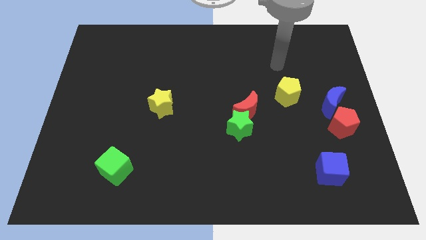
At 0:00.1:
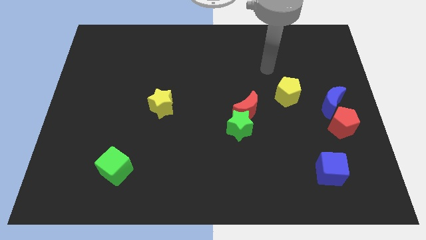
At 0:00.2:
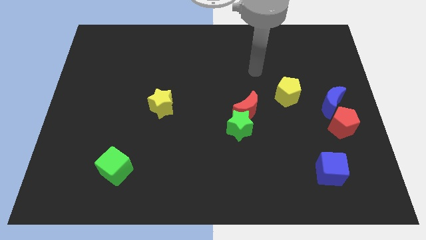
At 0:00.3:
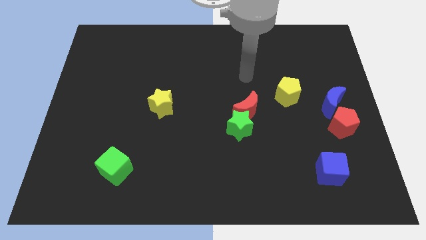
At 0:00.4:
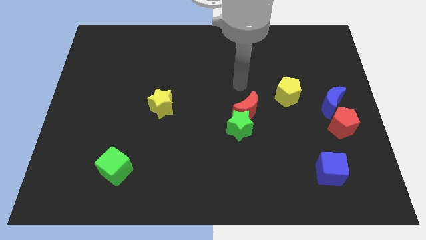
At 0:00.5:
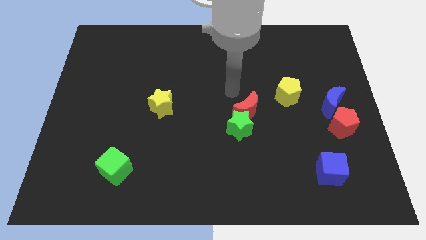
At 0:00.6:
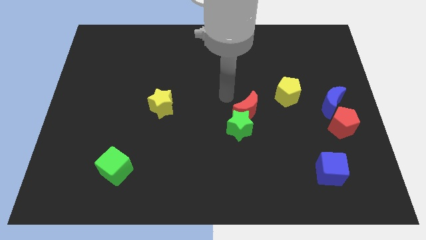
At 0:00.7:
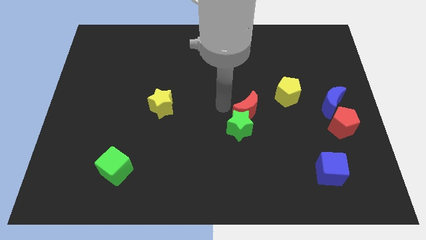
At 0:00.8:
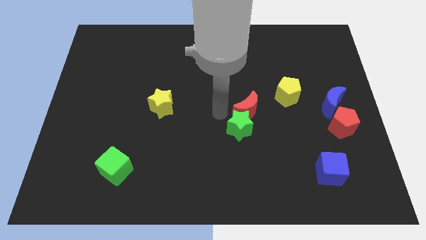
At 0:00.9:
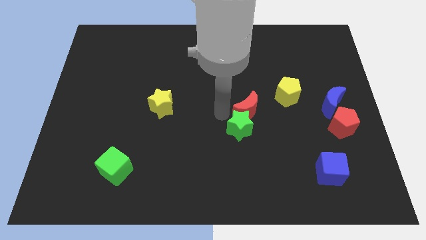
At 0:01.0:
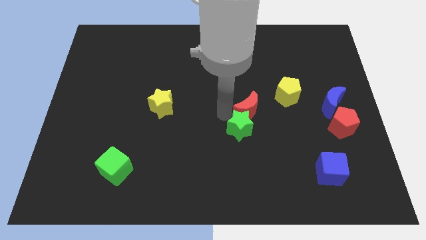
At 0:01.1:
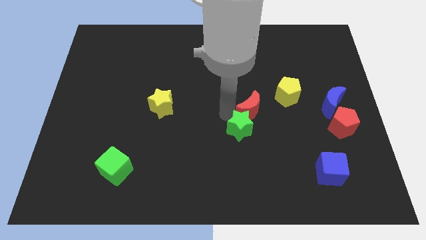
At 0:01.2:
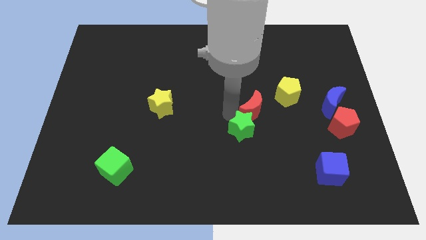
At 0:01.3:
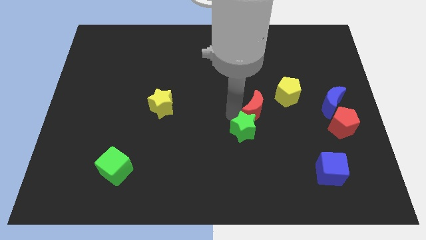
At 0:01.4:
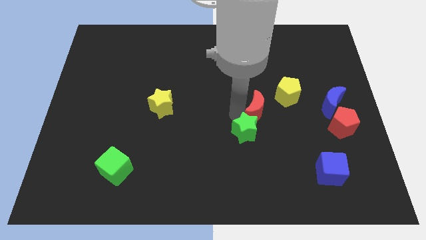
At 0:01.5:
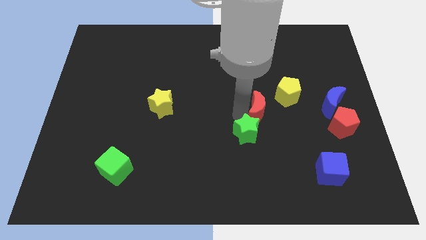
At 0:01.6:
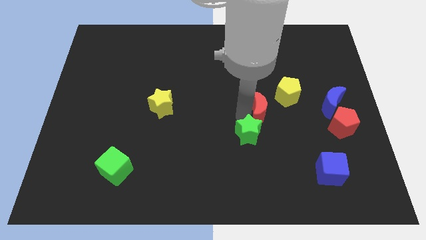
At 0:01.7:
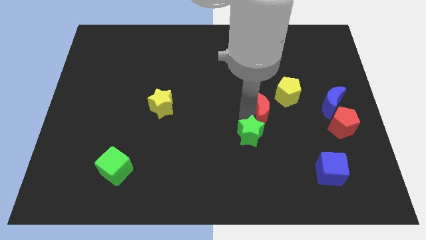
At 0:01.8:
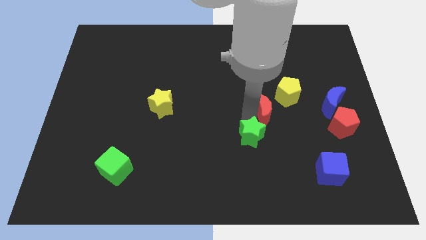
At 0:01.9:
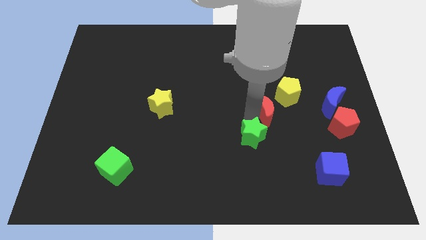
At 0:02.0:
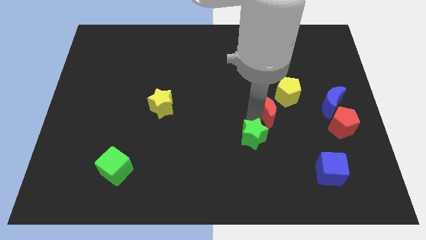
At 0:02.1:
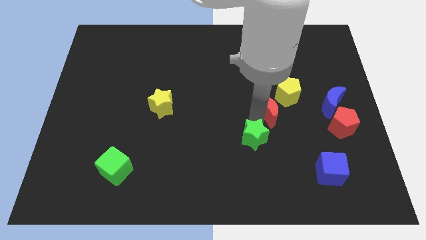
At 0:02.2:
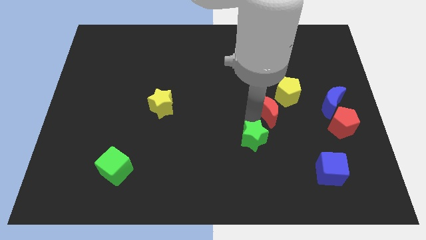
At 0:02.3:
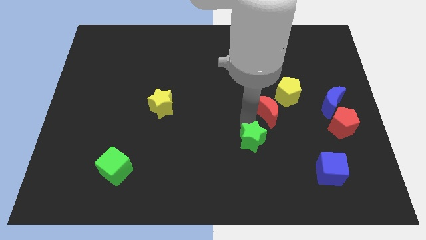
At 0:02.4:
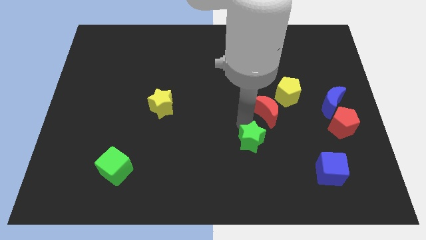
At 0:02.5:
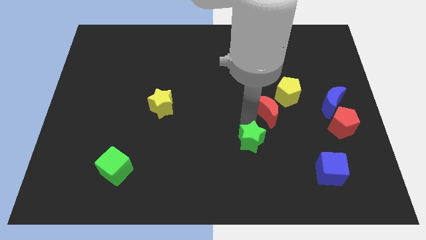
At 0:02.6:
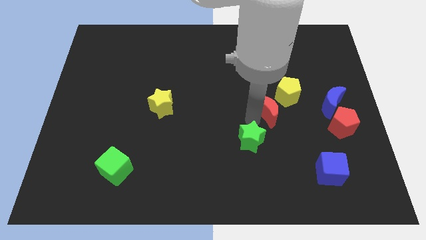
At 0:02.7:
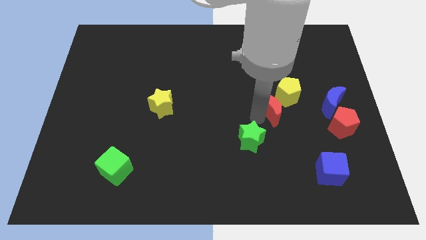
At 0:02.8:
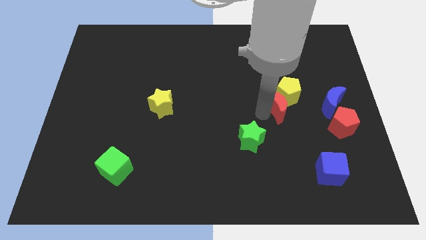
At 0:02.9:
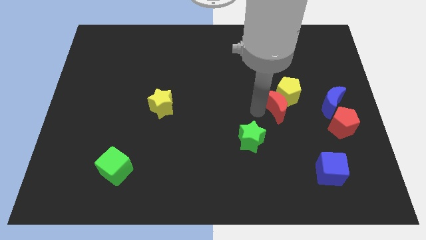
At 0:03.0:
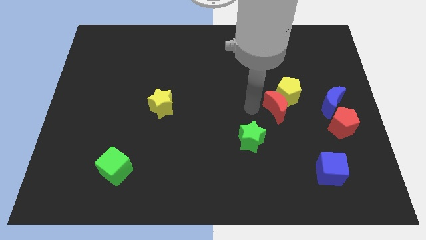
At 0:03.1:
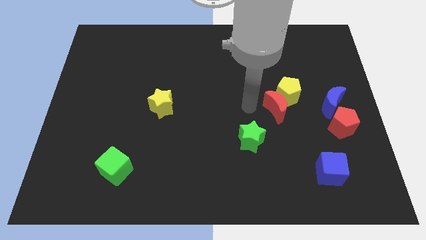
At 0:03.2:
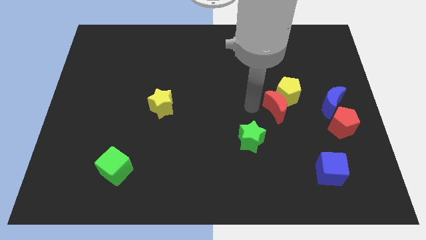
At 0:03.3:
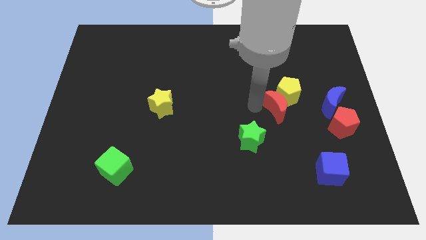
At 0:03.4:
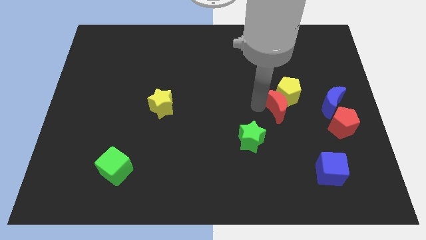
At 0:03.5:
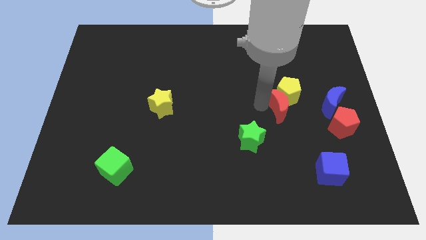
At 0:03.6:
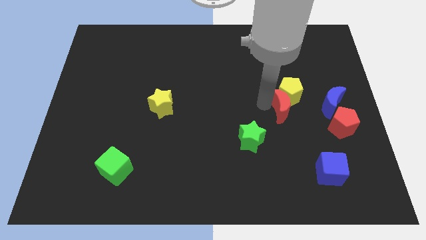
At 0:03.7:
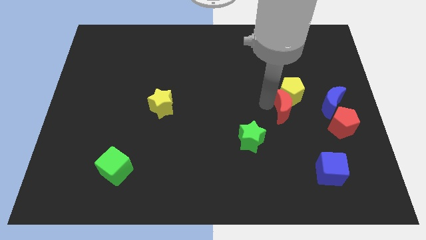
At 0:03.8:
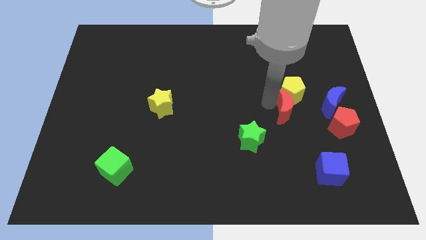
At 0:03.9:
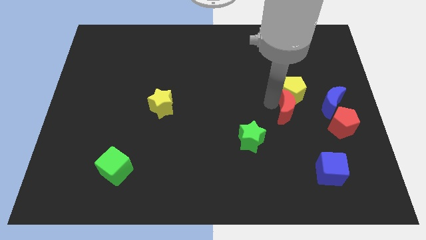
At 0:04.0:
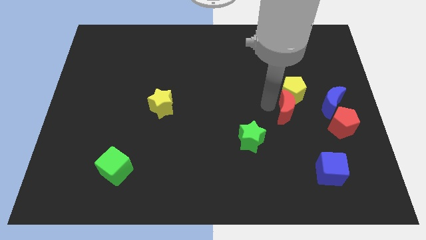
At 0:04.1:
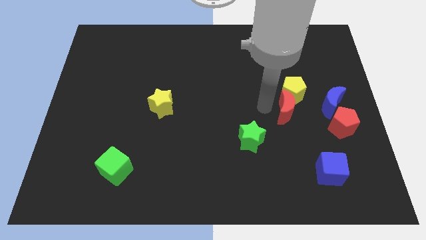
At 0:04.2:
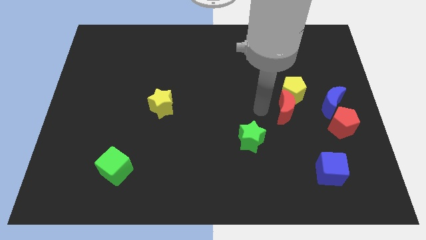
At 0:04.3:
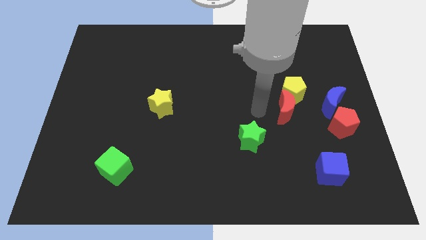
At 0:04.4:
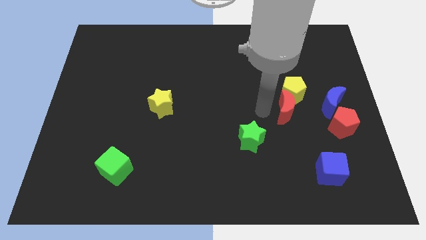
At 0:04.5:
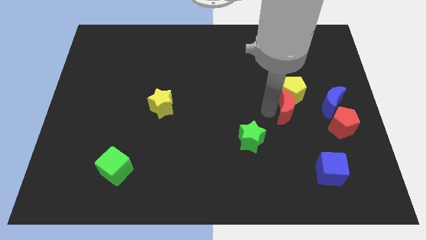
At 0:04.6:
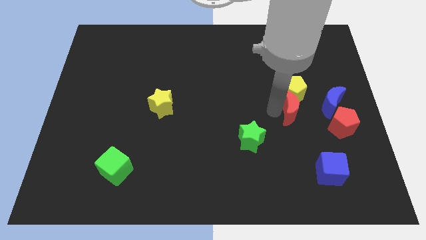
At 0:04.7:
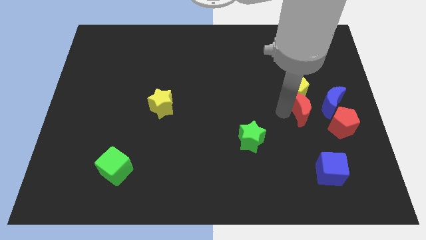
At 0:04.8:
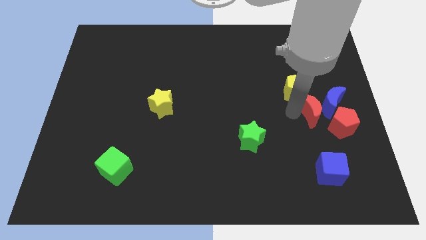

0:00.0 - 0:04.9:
put the red moon to the blue moon

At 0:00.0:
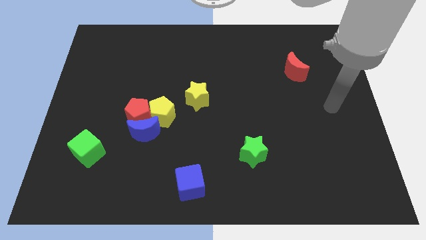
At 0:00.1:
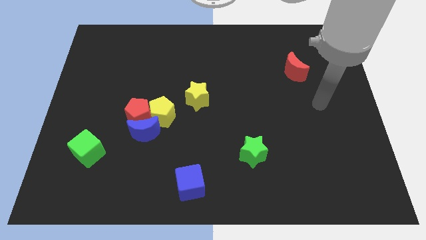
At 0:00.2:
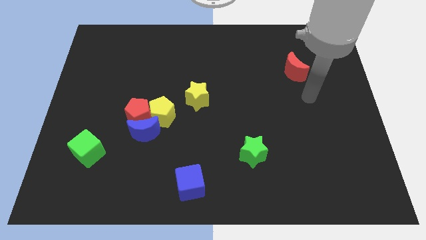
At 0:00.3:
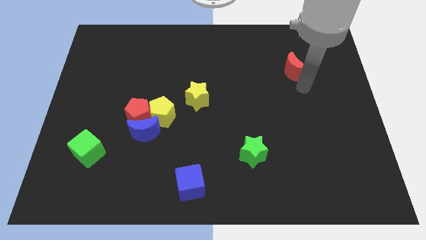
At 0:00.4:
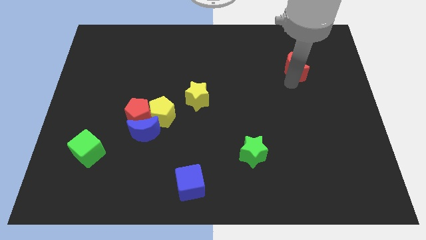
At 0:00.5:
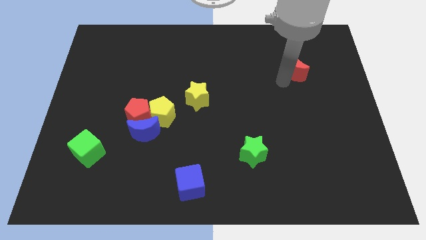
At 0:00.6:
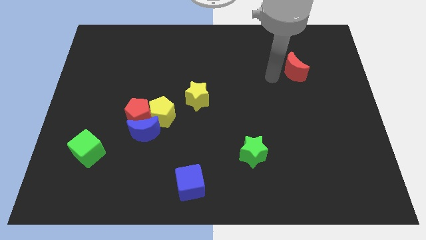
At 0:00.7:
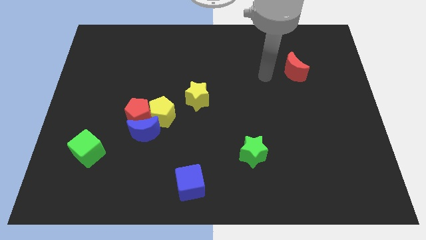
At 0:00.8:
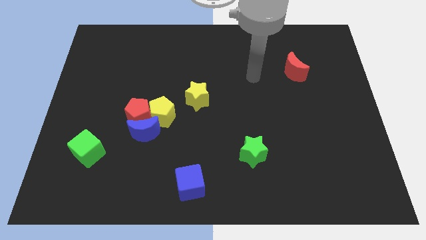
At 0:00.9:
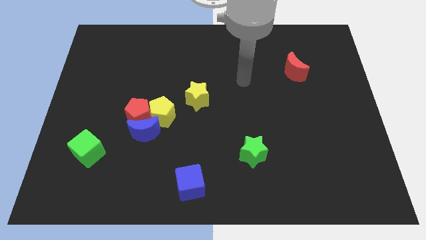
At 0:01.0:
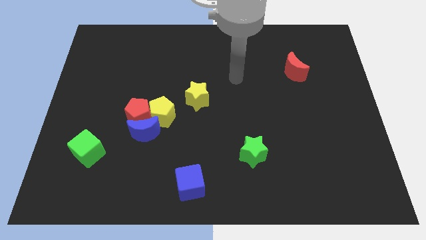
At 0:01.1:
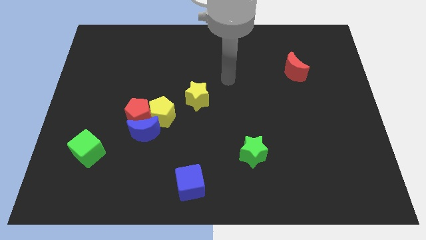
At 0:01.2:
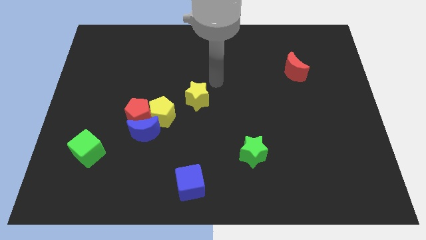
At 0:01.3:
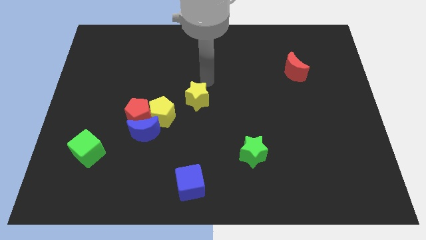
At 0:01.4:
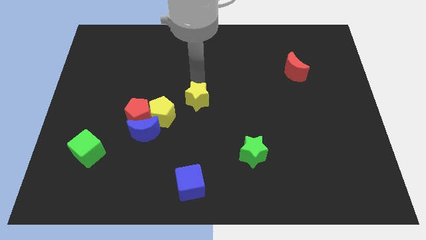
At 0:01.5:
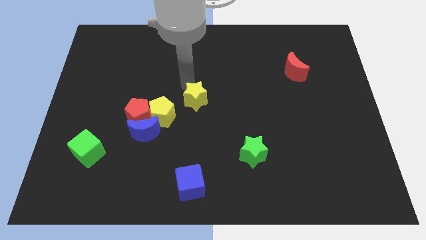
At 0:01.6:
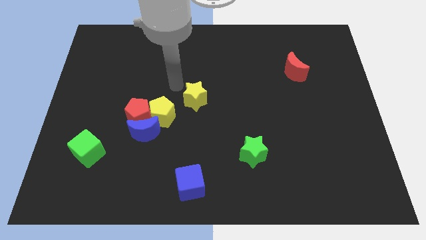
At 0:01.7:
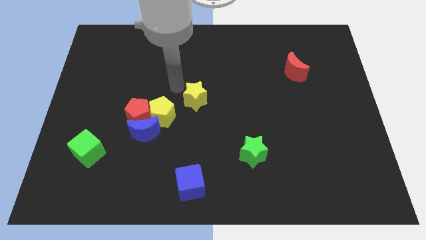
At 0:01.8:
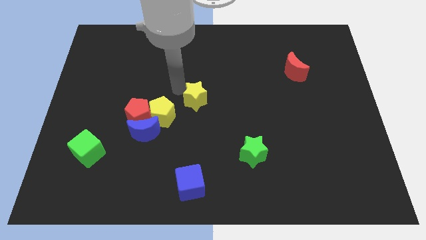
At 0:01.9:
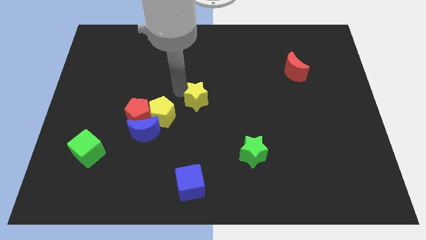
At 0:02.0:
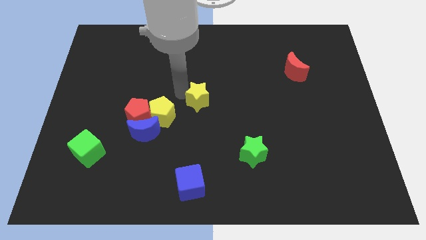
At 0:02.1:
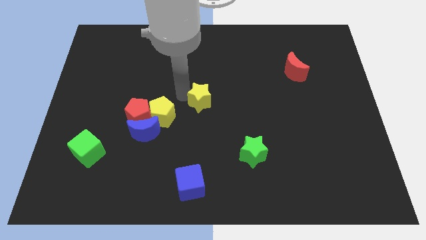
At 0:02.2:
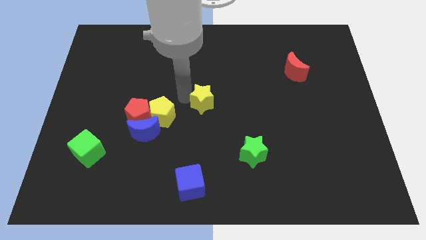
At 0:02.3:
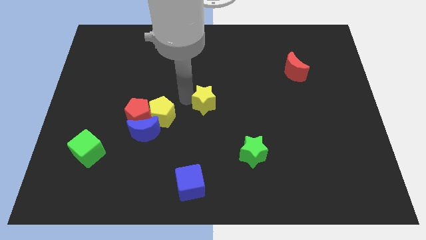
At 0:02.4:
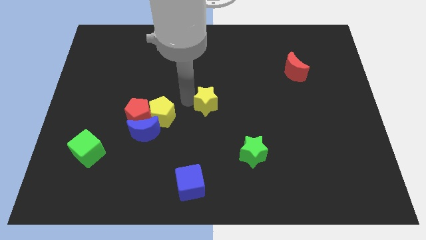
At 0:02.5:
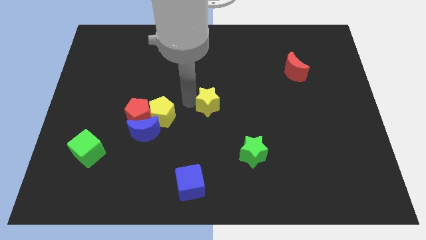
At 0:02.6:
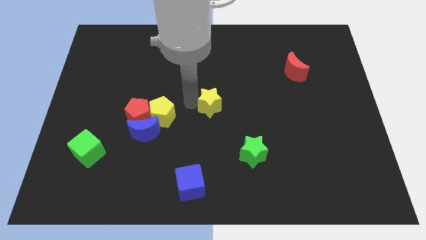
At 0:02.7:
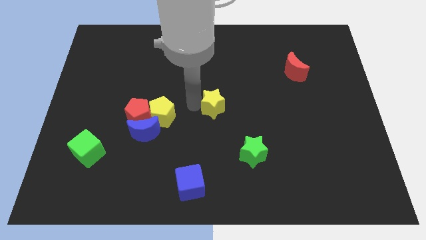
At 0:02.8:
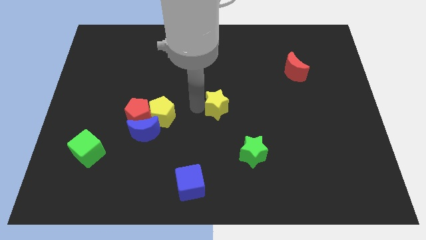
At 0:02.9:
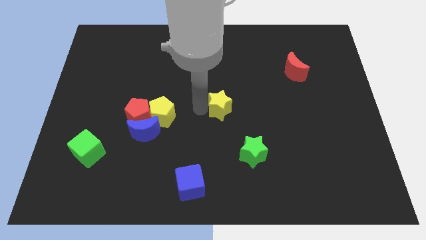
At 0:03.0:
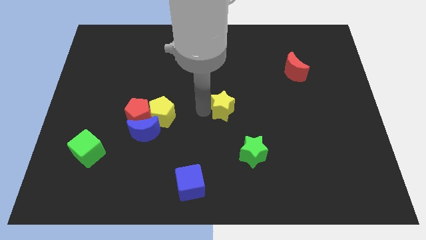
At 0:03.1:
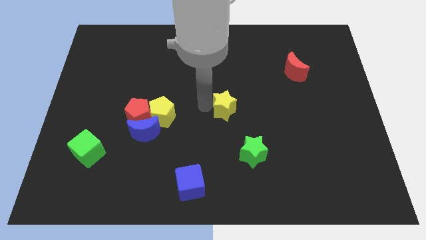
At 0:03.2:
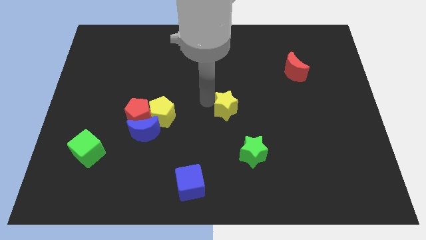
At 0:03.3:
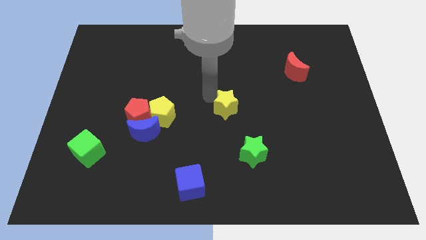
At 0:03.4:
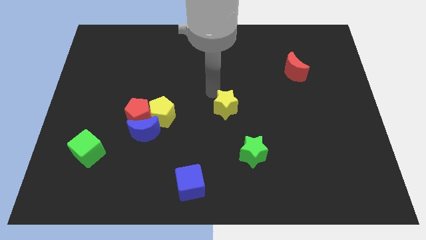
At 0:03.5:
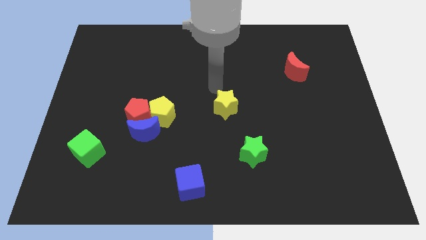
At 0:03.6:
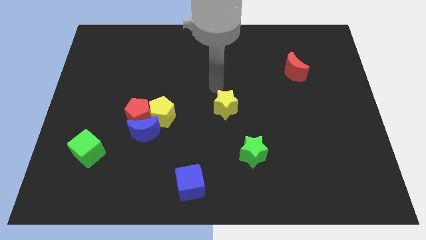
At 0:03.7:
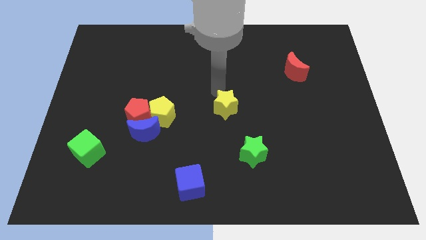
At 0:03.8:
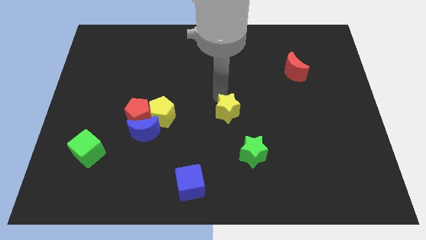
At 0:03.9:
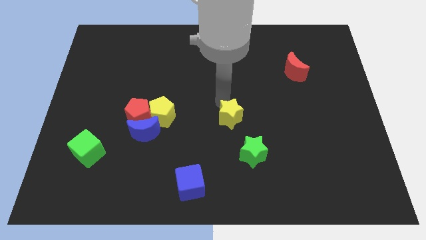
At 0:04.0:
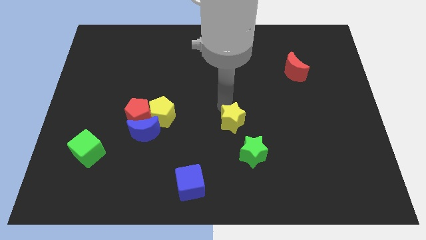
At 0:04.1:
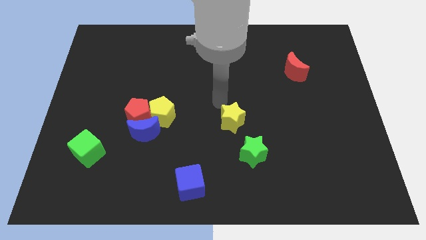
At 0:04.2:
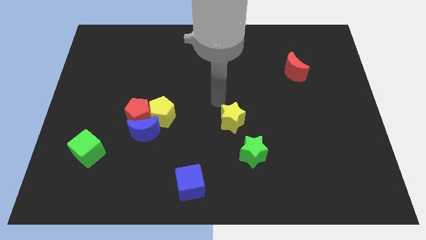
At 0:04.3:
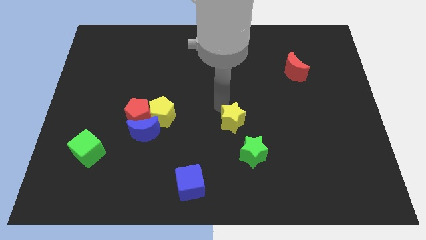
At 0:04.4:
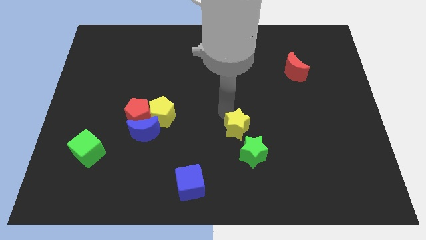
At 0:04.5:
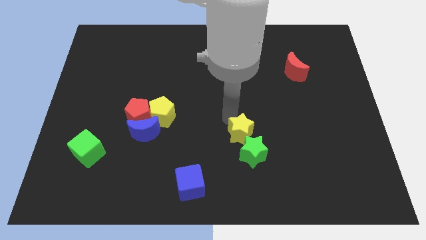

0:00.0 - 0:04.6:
push the yellow star towards the green star
